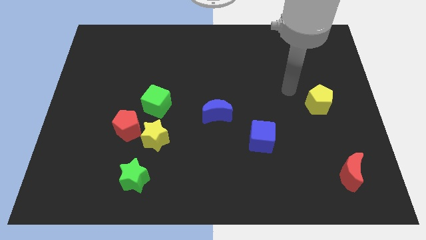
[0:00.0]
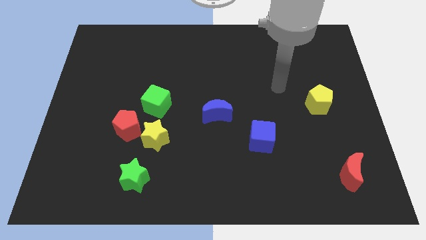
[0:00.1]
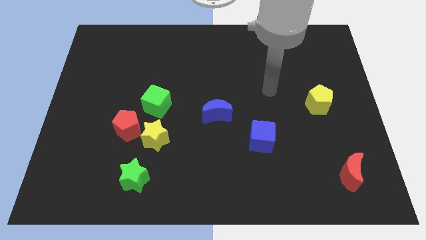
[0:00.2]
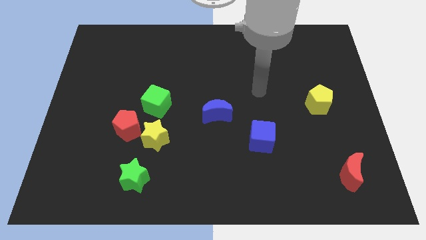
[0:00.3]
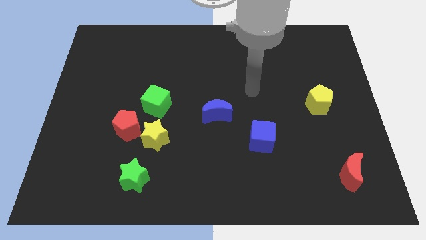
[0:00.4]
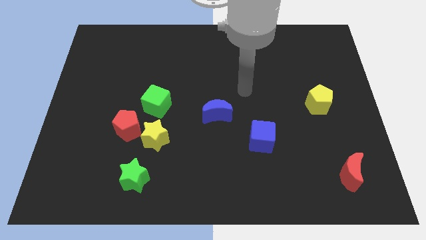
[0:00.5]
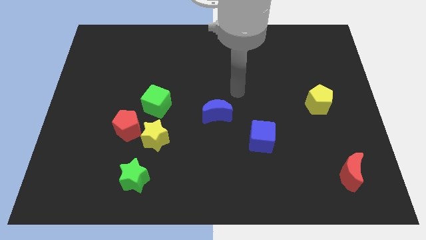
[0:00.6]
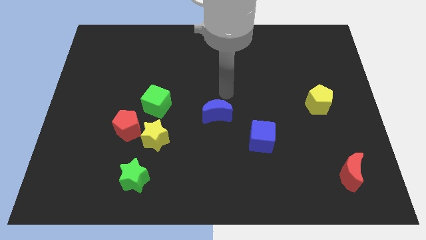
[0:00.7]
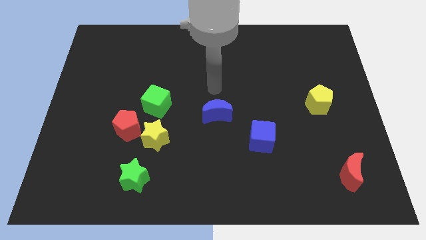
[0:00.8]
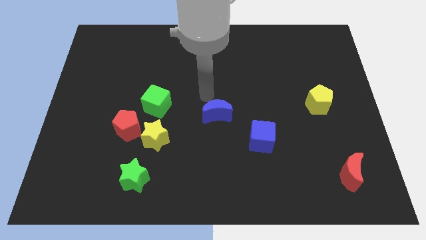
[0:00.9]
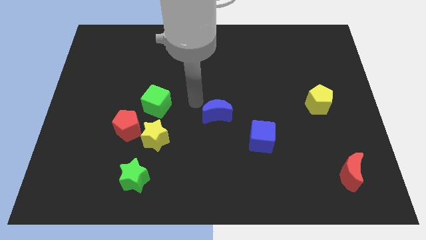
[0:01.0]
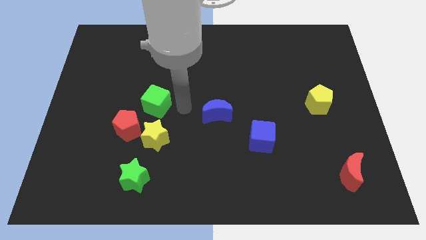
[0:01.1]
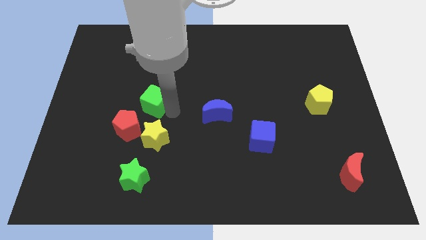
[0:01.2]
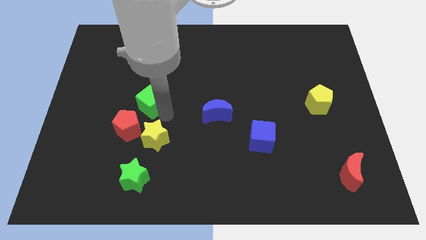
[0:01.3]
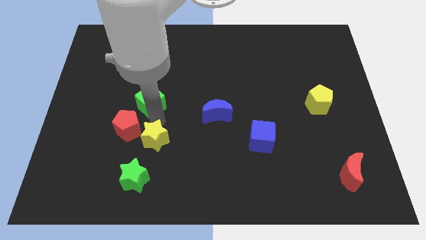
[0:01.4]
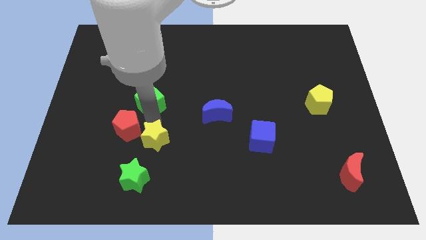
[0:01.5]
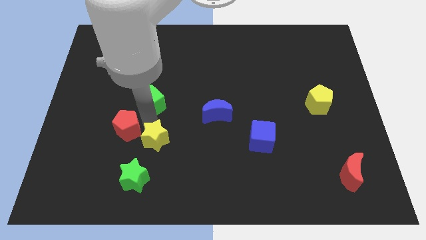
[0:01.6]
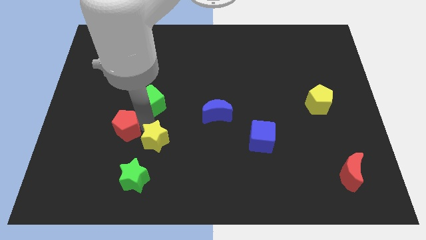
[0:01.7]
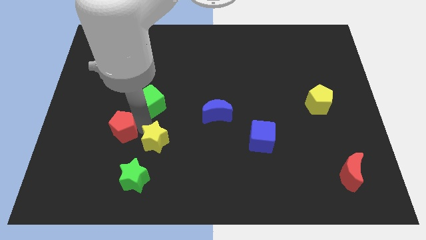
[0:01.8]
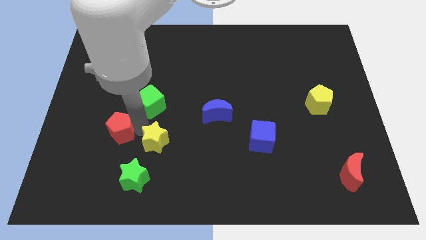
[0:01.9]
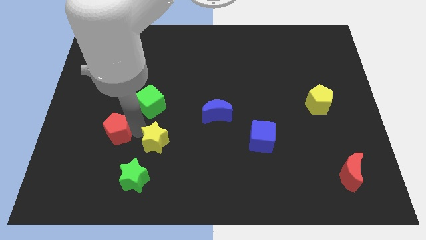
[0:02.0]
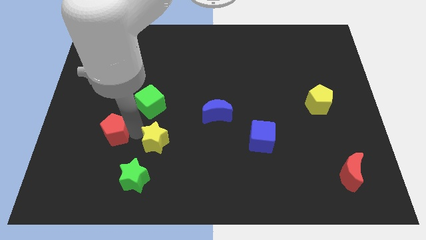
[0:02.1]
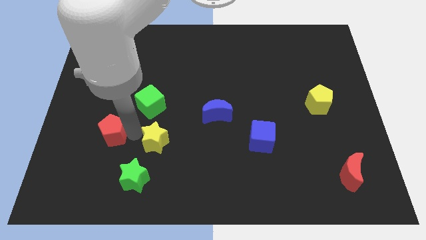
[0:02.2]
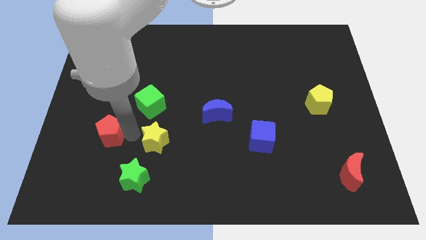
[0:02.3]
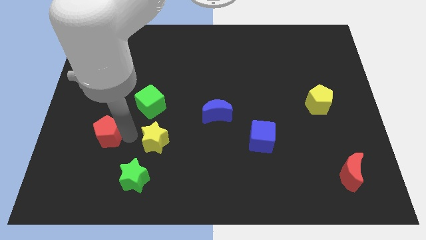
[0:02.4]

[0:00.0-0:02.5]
separate the red pentagon from the yellow star and green cube

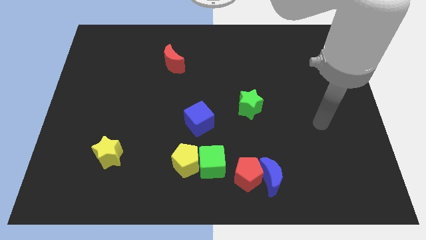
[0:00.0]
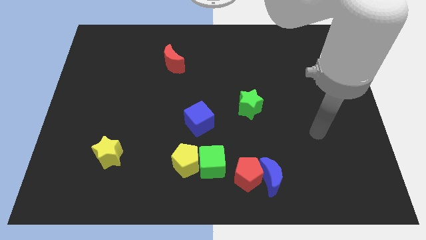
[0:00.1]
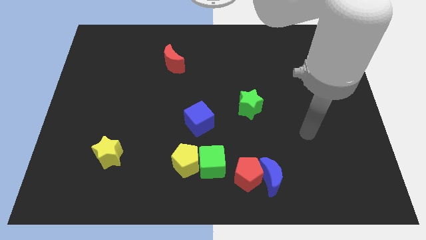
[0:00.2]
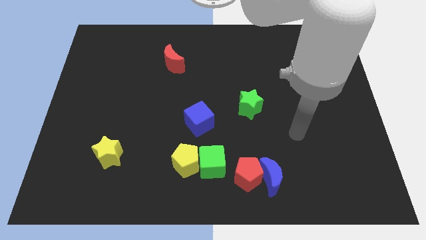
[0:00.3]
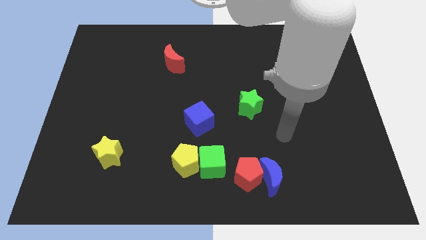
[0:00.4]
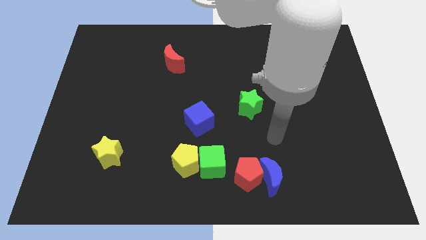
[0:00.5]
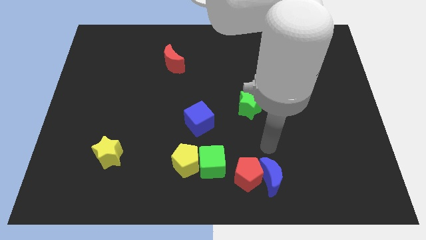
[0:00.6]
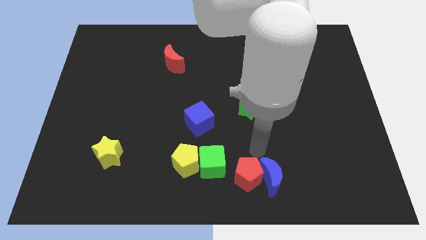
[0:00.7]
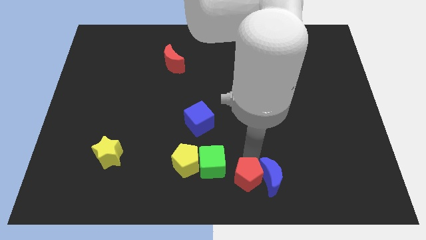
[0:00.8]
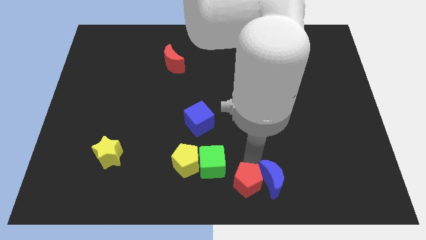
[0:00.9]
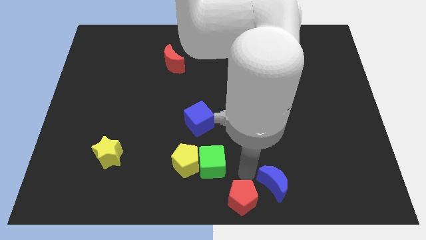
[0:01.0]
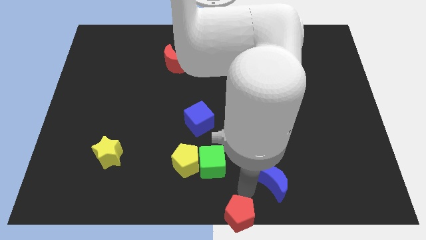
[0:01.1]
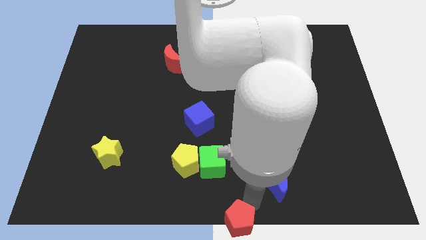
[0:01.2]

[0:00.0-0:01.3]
pull the blue moon apart from the red pentagon

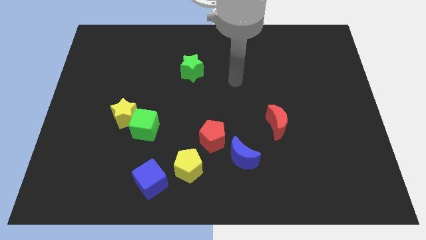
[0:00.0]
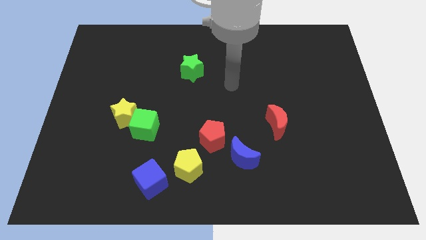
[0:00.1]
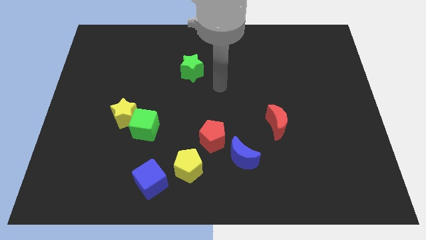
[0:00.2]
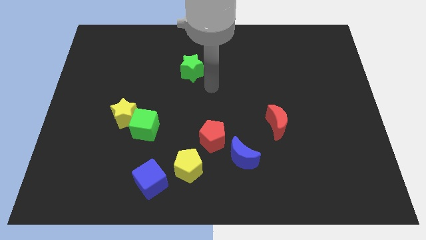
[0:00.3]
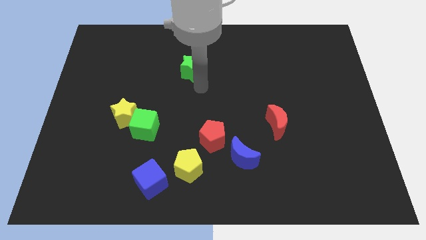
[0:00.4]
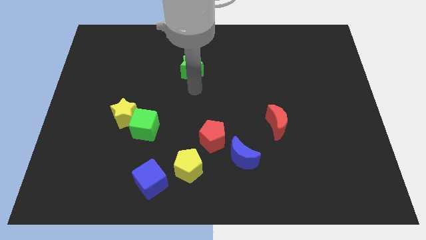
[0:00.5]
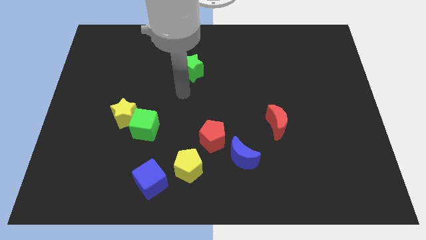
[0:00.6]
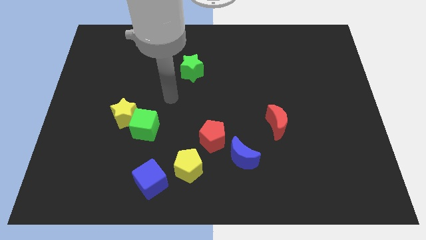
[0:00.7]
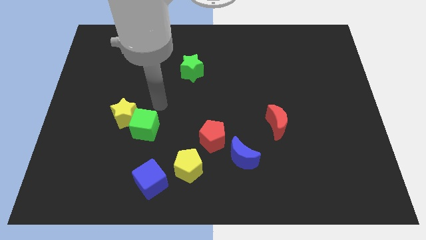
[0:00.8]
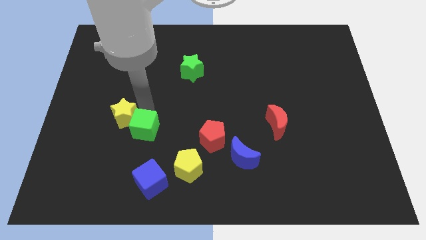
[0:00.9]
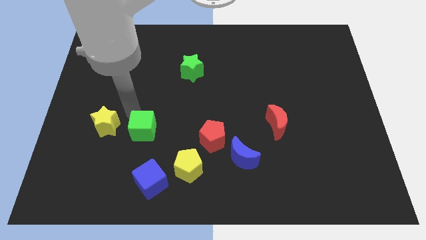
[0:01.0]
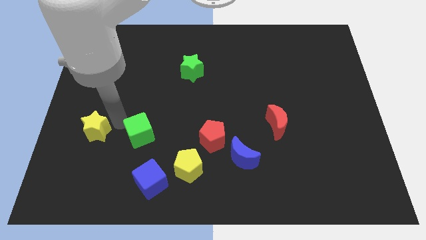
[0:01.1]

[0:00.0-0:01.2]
separate the green cube from the yellow star

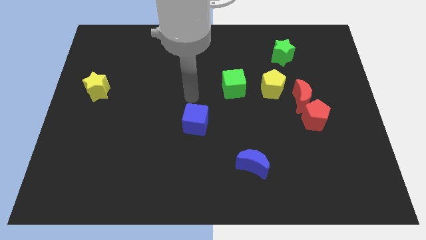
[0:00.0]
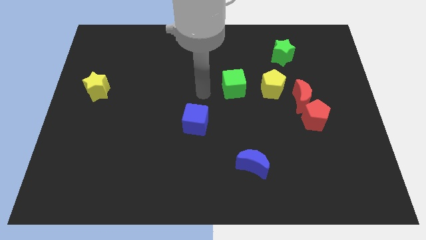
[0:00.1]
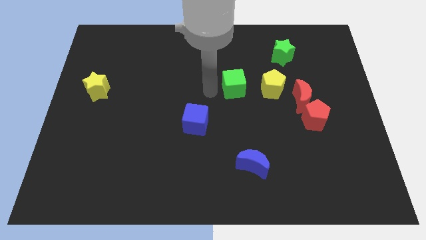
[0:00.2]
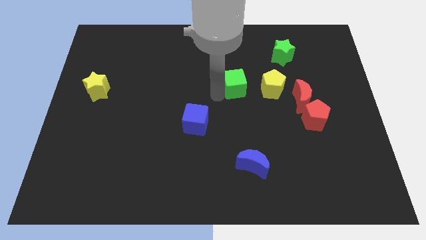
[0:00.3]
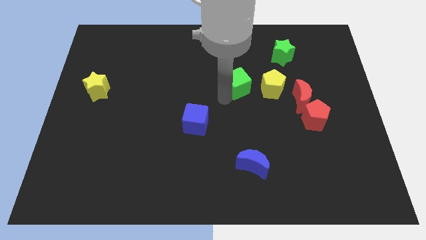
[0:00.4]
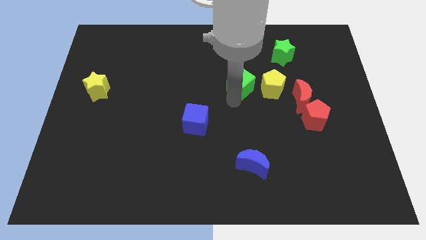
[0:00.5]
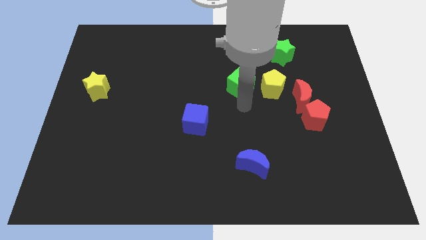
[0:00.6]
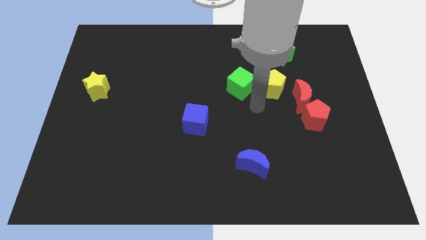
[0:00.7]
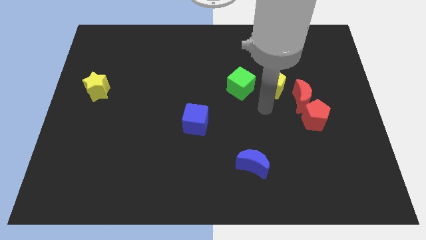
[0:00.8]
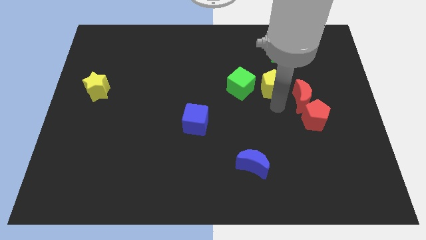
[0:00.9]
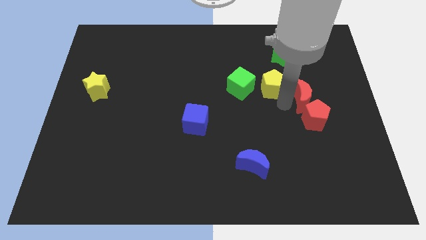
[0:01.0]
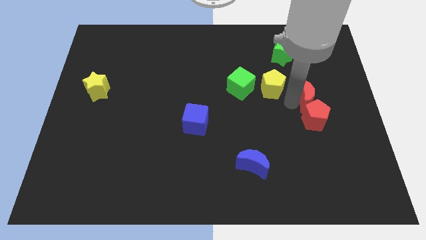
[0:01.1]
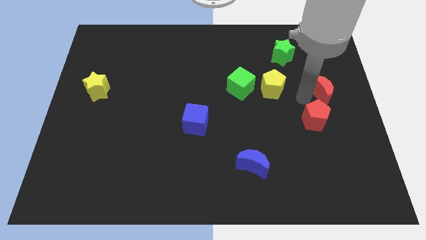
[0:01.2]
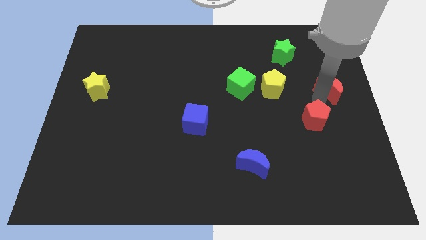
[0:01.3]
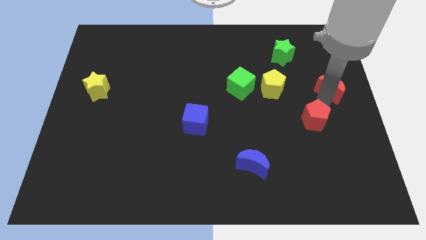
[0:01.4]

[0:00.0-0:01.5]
move the red pentagon away from the red moon

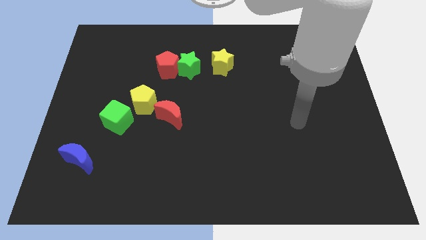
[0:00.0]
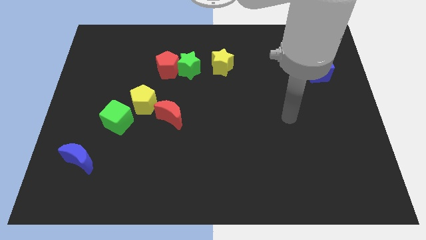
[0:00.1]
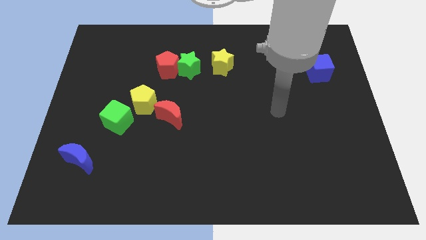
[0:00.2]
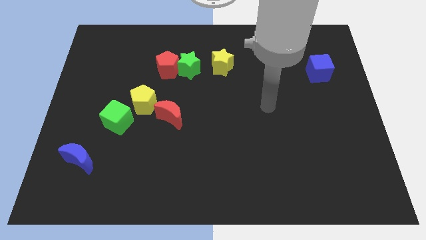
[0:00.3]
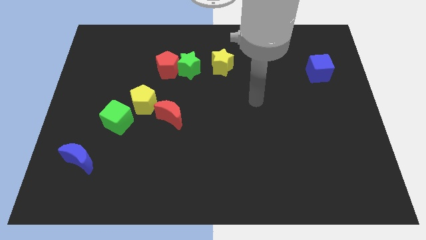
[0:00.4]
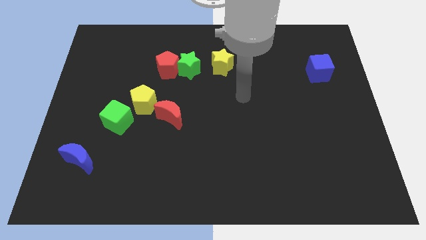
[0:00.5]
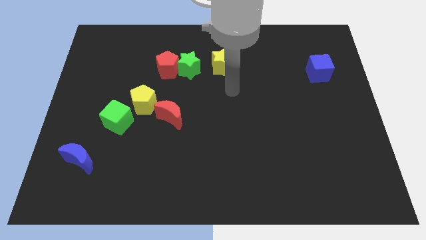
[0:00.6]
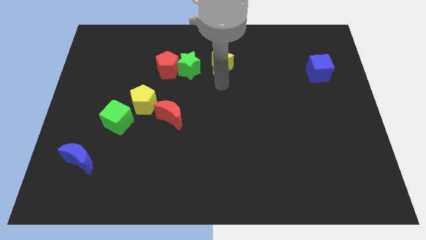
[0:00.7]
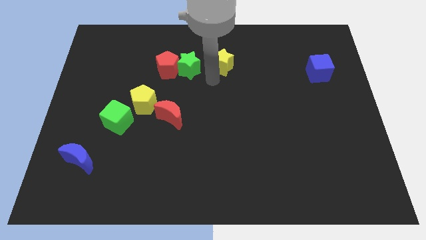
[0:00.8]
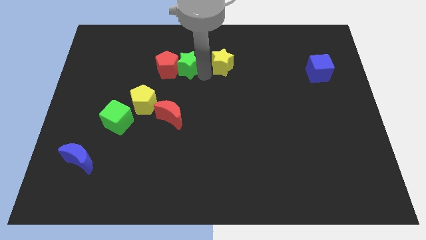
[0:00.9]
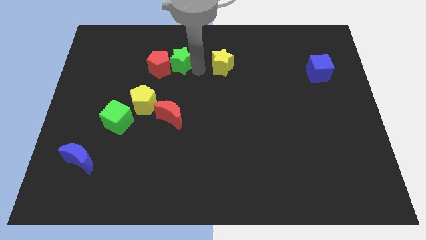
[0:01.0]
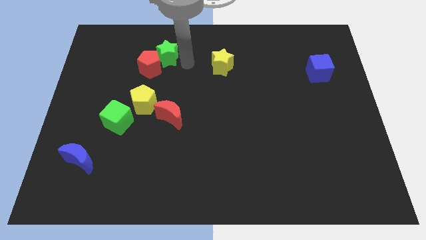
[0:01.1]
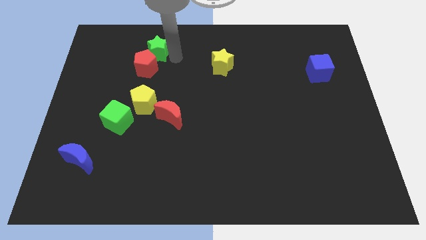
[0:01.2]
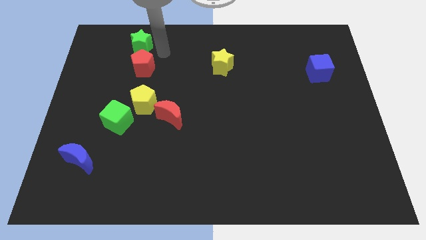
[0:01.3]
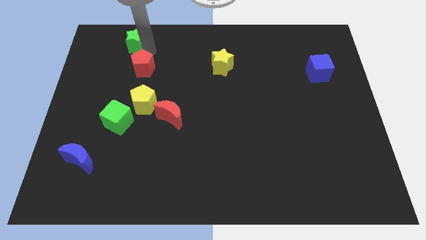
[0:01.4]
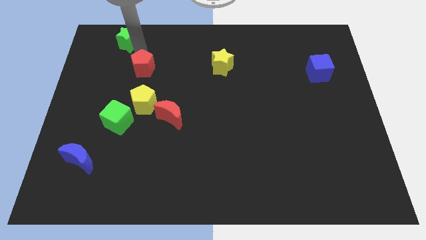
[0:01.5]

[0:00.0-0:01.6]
move the red pentagon away from the green star

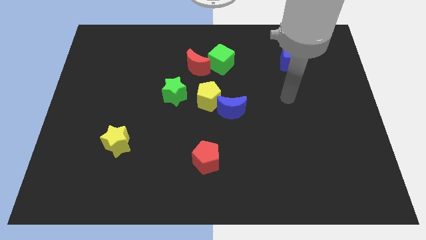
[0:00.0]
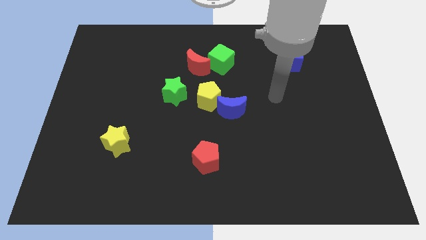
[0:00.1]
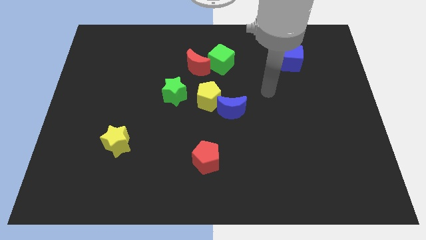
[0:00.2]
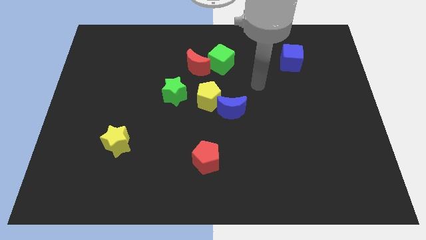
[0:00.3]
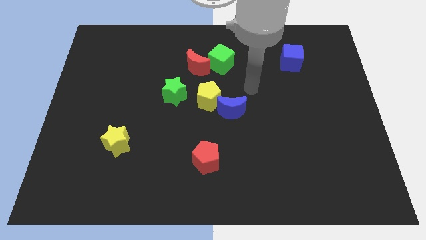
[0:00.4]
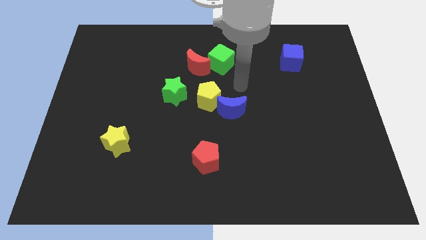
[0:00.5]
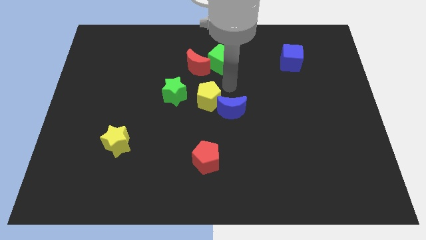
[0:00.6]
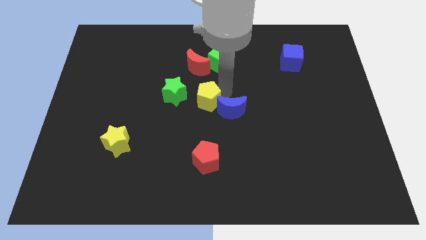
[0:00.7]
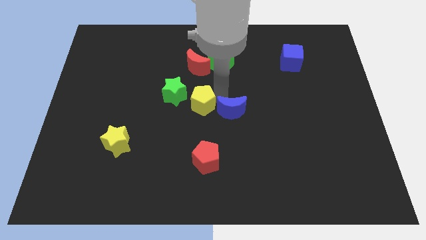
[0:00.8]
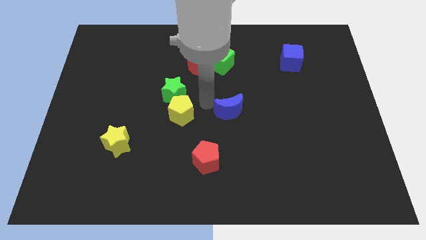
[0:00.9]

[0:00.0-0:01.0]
separate the blue moon from the yellow pentagon
